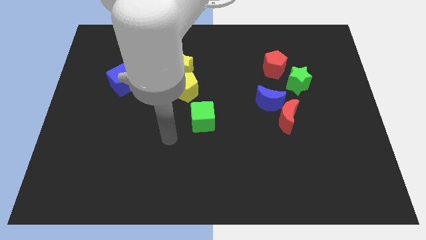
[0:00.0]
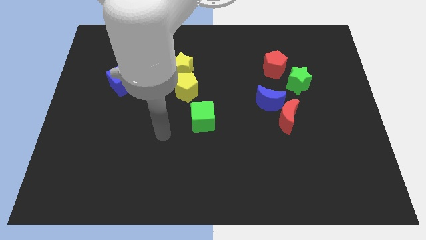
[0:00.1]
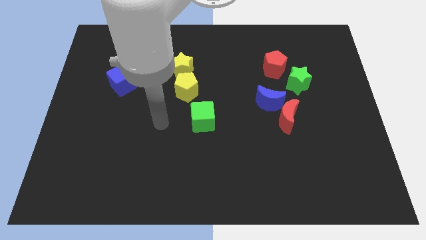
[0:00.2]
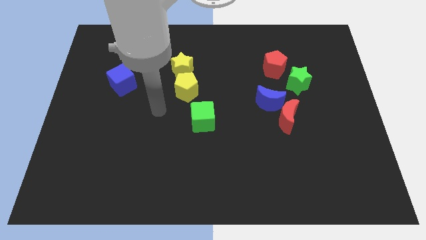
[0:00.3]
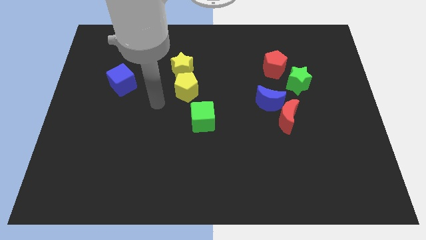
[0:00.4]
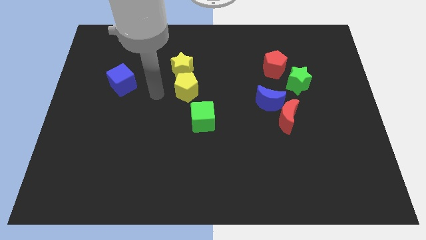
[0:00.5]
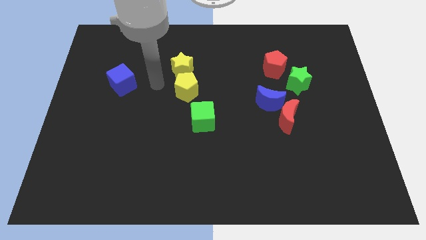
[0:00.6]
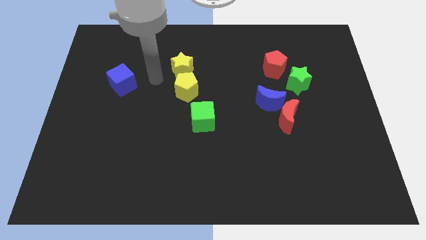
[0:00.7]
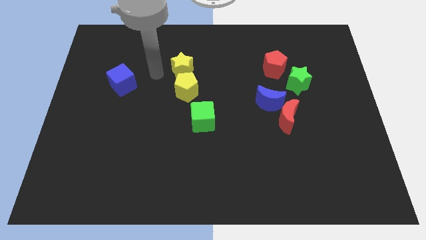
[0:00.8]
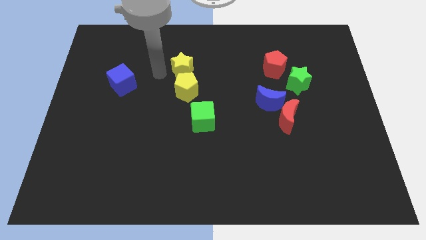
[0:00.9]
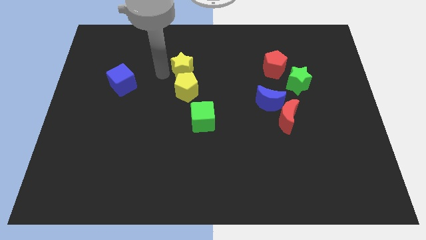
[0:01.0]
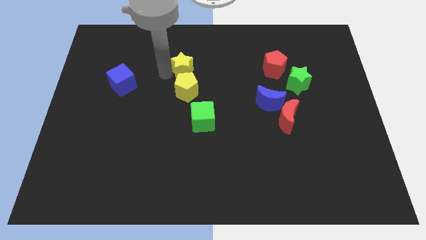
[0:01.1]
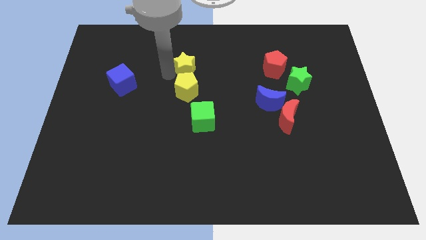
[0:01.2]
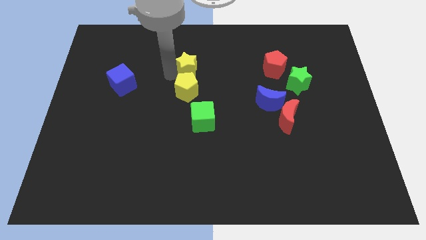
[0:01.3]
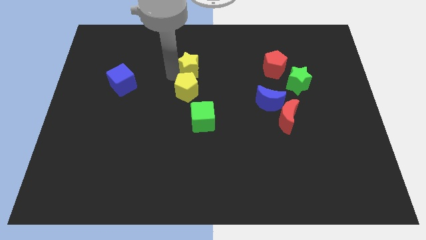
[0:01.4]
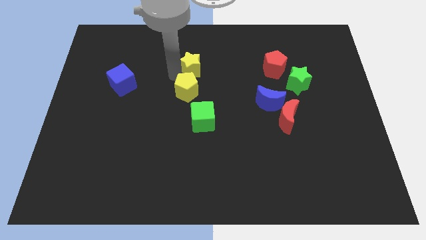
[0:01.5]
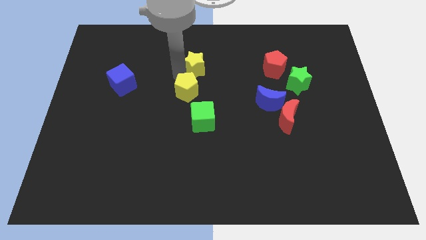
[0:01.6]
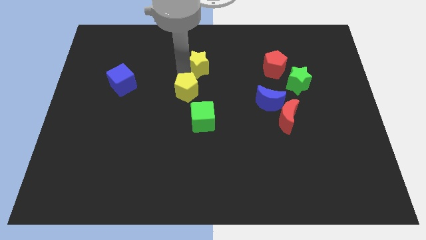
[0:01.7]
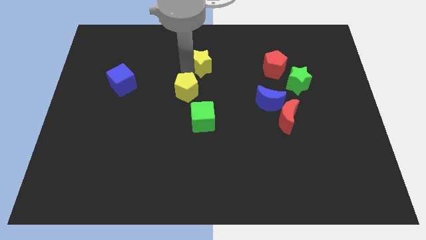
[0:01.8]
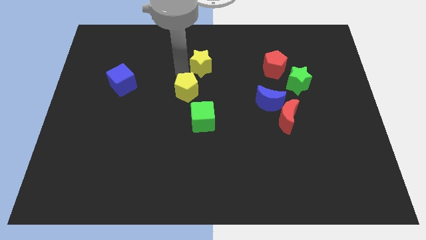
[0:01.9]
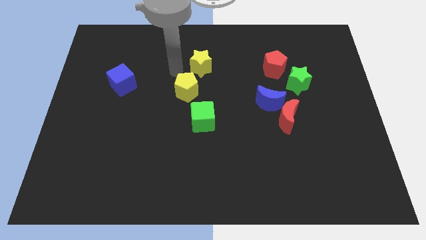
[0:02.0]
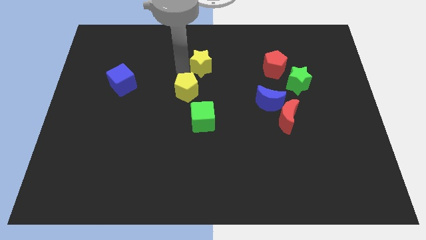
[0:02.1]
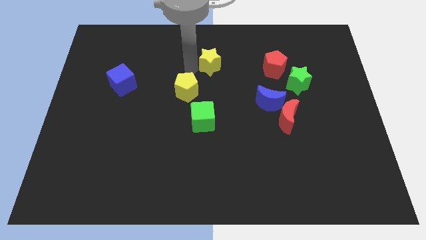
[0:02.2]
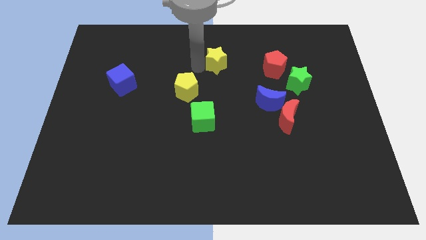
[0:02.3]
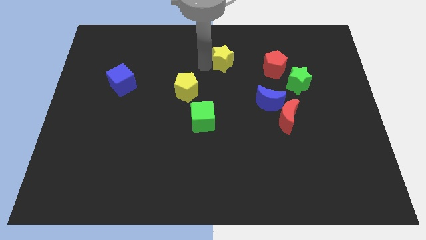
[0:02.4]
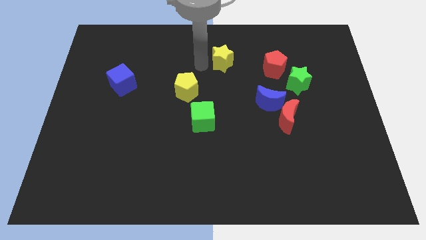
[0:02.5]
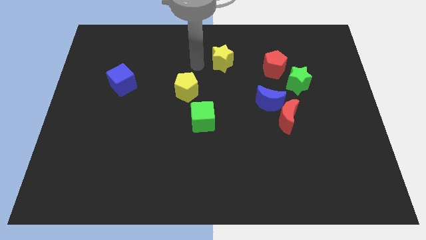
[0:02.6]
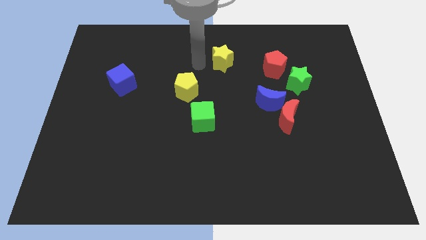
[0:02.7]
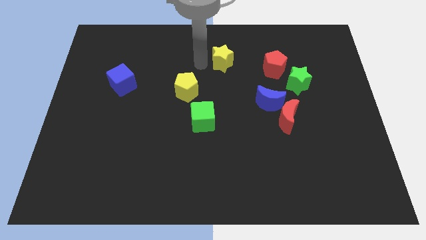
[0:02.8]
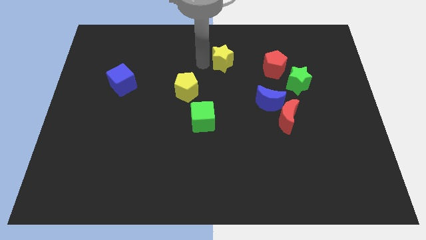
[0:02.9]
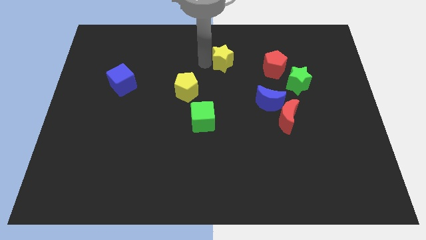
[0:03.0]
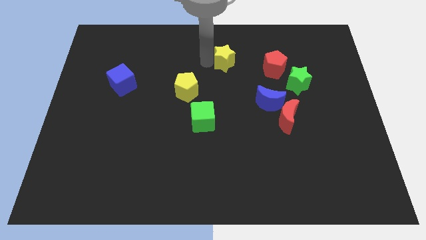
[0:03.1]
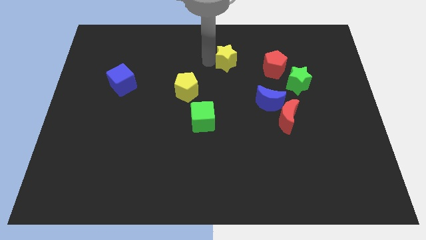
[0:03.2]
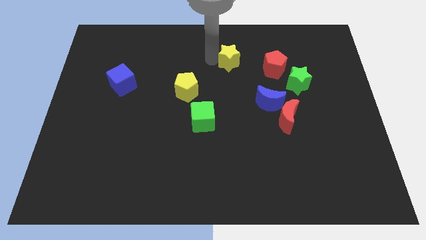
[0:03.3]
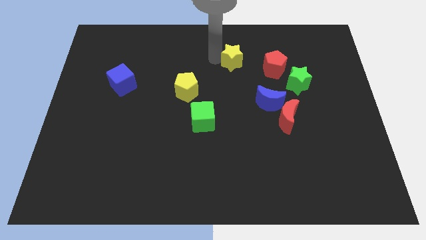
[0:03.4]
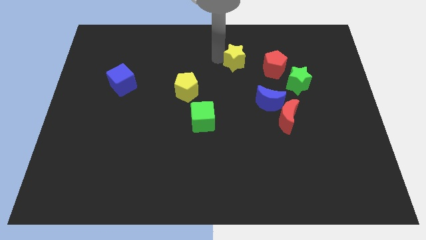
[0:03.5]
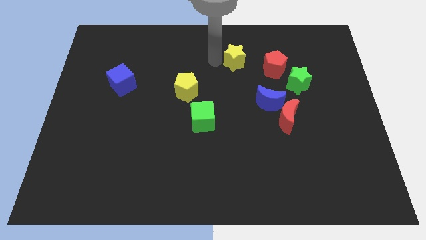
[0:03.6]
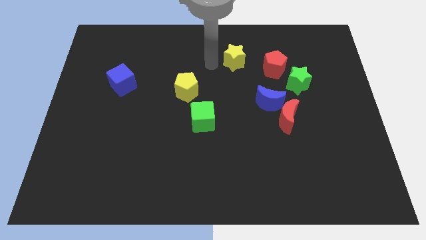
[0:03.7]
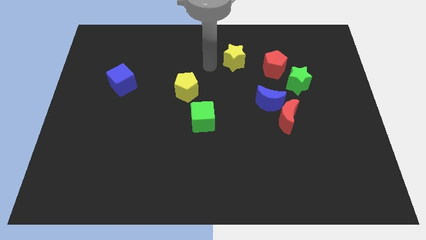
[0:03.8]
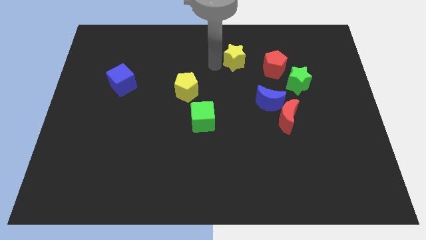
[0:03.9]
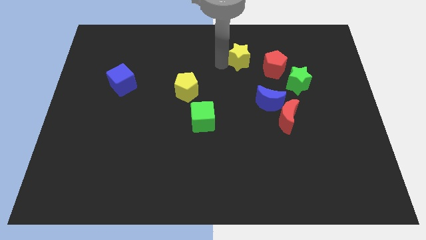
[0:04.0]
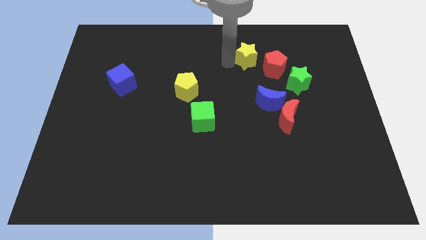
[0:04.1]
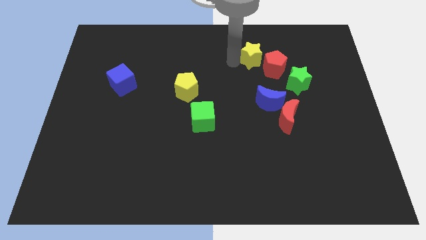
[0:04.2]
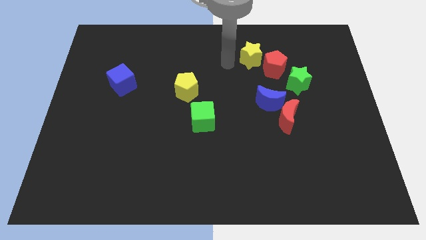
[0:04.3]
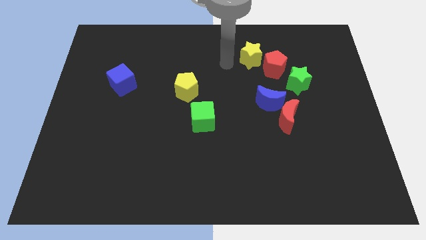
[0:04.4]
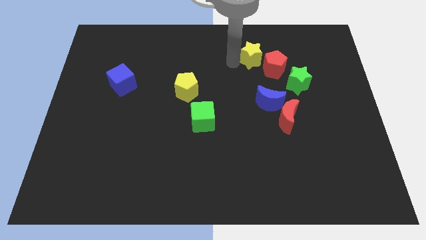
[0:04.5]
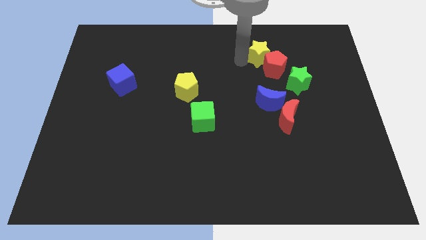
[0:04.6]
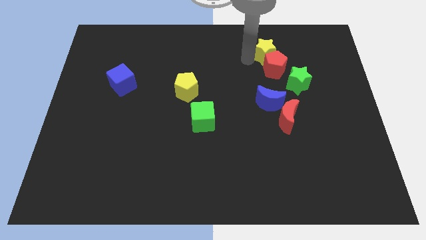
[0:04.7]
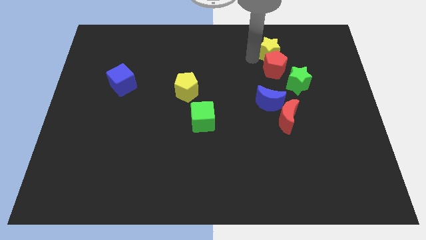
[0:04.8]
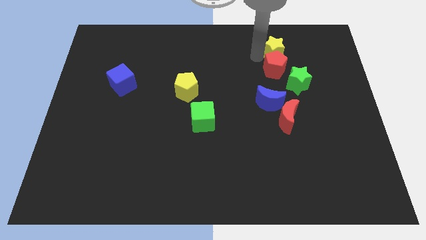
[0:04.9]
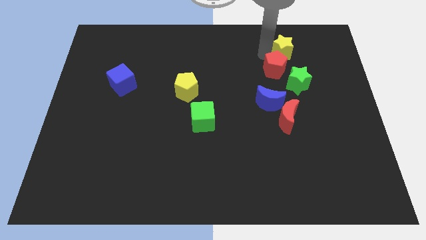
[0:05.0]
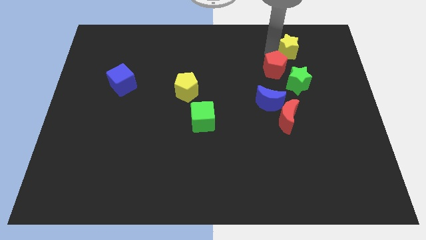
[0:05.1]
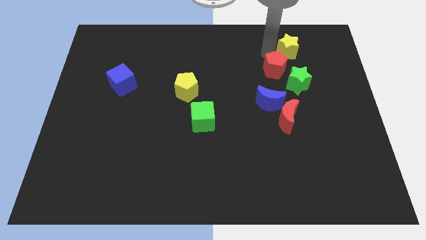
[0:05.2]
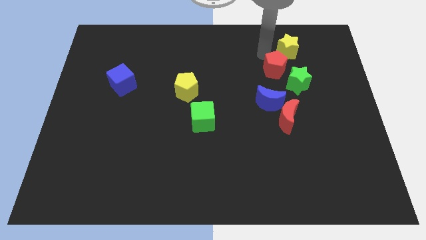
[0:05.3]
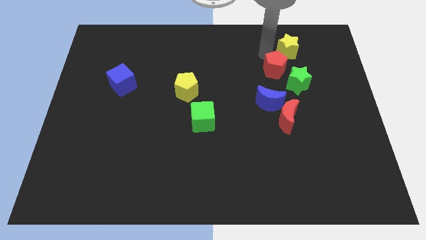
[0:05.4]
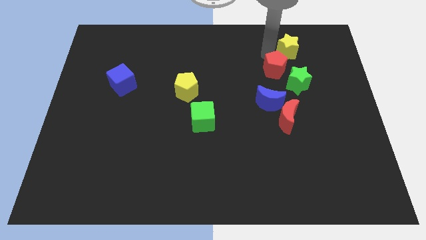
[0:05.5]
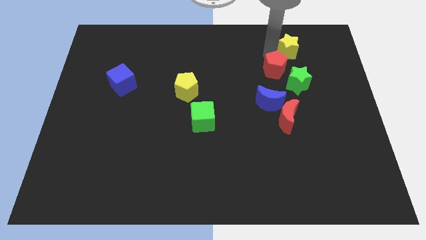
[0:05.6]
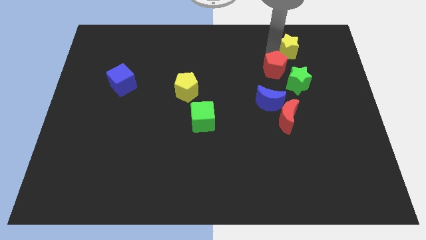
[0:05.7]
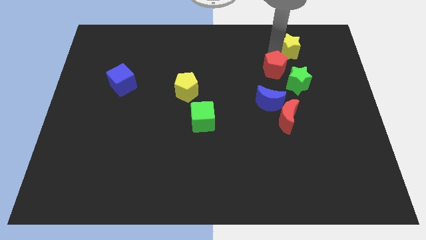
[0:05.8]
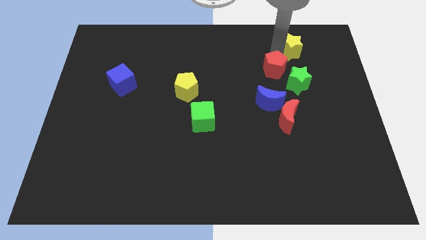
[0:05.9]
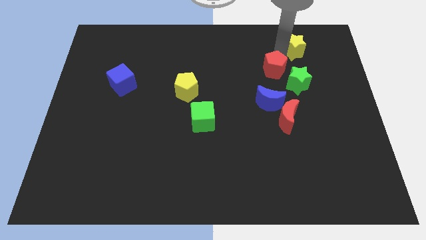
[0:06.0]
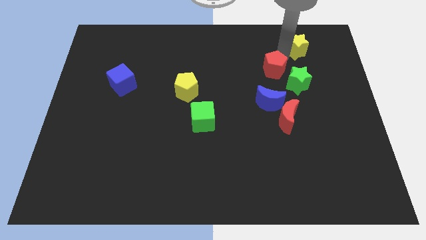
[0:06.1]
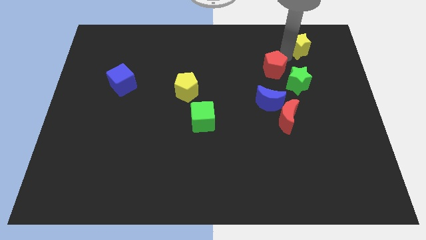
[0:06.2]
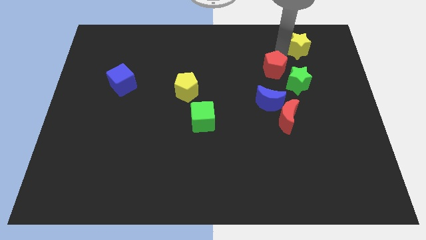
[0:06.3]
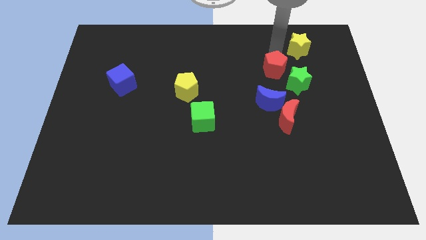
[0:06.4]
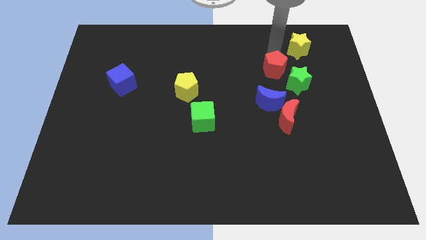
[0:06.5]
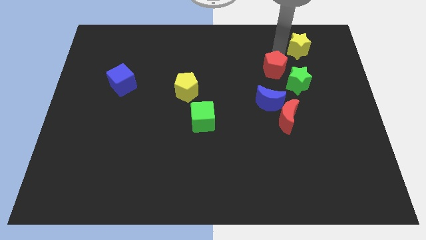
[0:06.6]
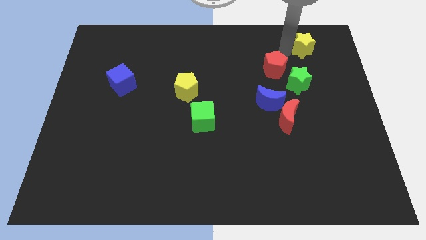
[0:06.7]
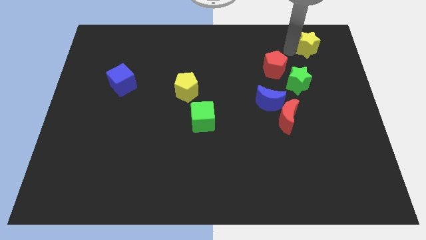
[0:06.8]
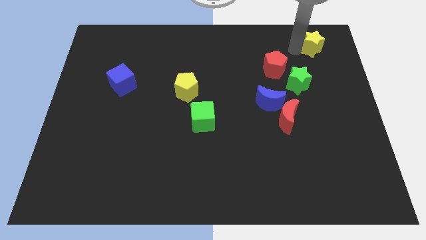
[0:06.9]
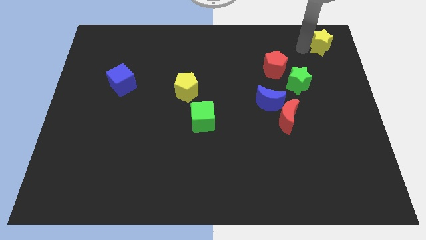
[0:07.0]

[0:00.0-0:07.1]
slide the yellow star to the upper right corner

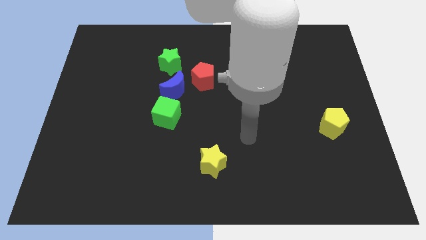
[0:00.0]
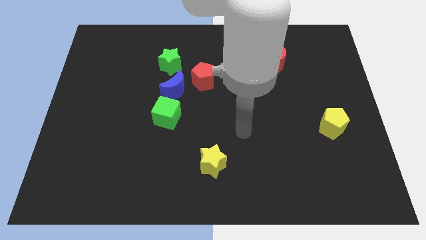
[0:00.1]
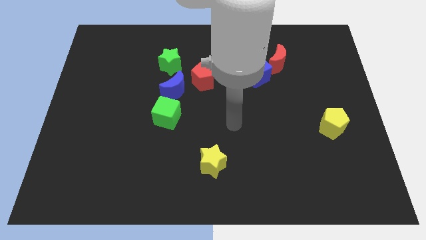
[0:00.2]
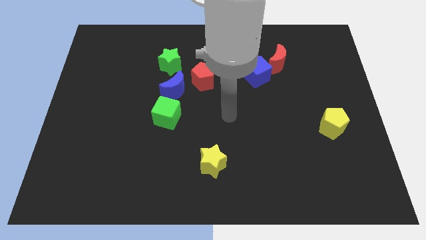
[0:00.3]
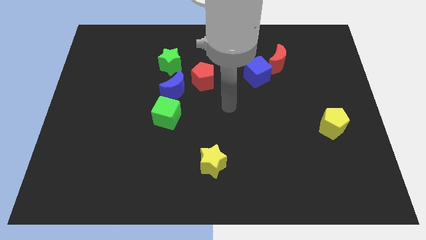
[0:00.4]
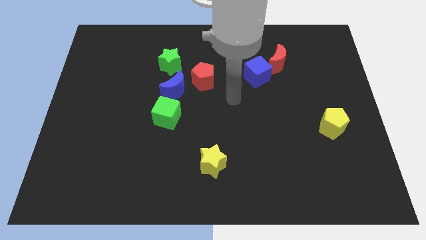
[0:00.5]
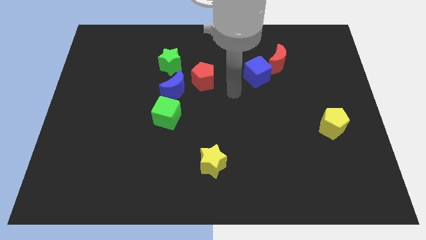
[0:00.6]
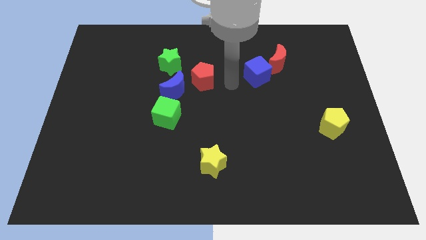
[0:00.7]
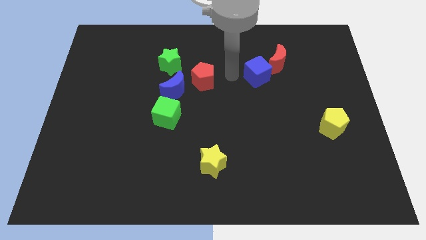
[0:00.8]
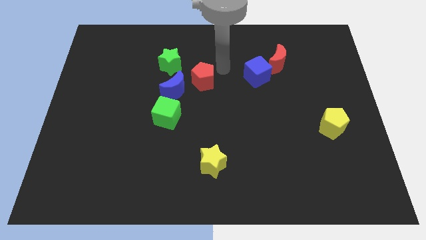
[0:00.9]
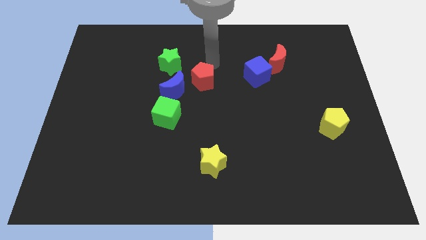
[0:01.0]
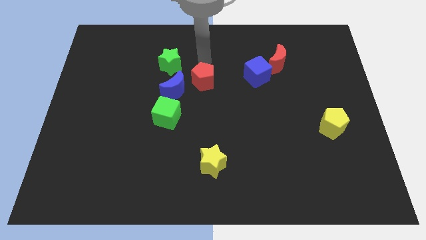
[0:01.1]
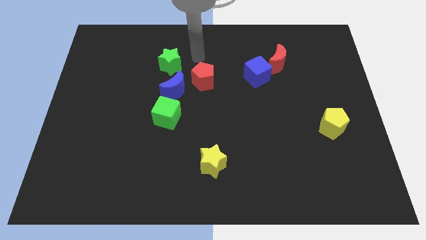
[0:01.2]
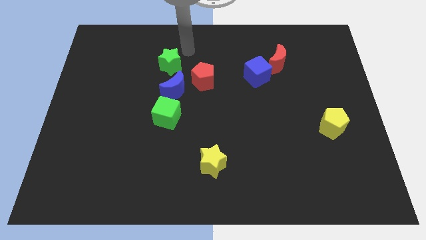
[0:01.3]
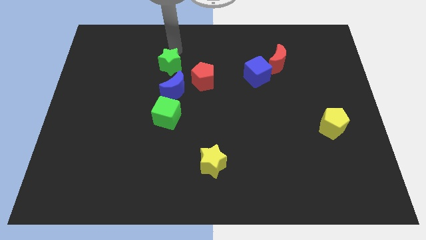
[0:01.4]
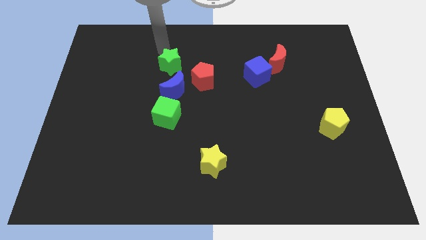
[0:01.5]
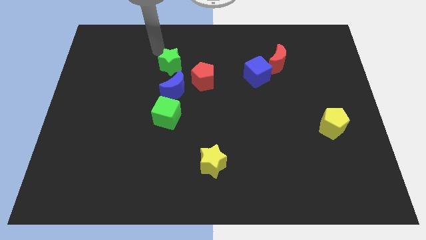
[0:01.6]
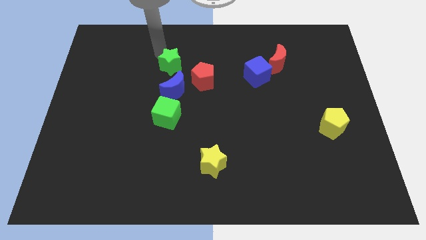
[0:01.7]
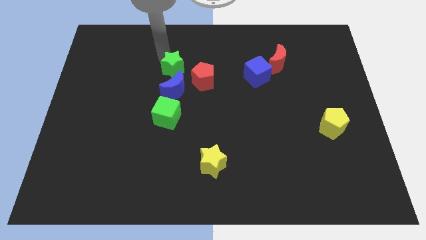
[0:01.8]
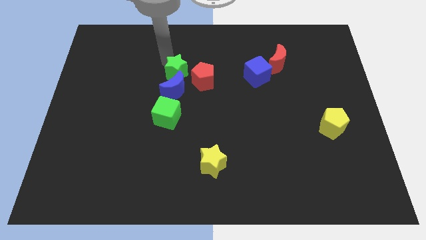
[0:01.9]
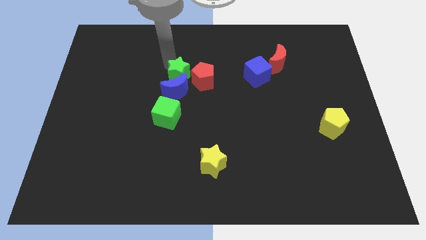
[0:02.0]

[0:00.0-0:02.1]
move the green star to the center of the board
